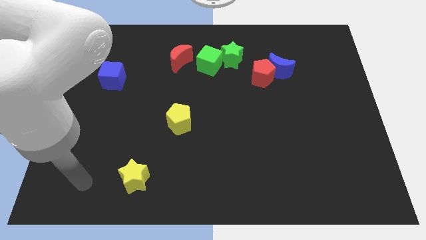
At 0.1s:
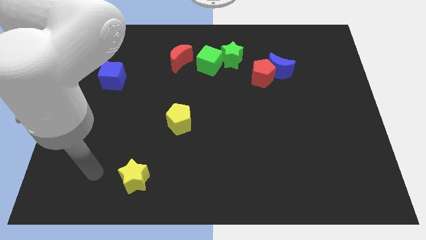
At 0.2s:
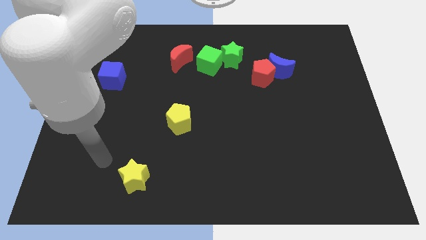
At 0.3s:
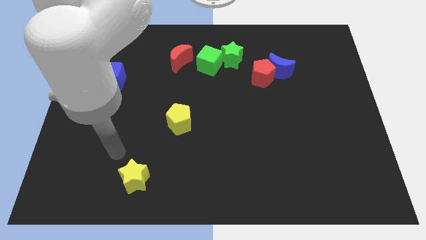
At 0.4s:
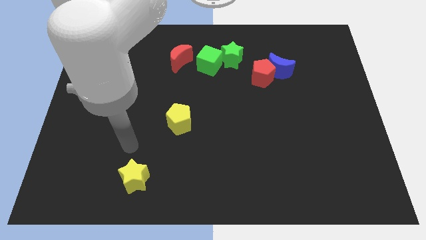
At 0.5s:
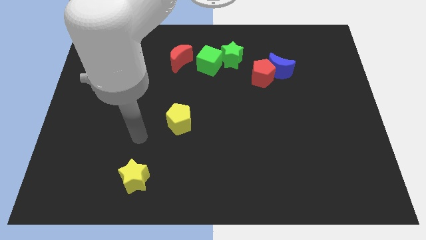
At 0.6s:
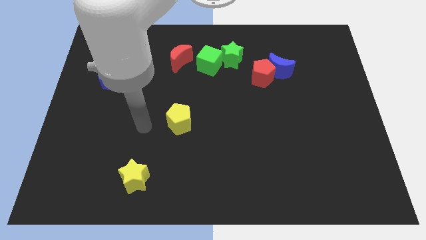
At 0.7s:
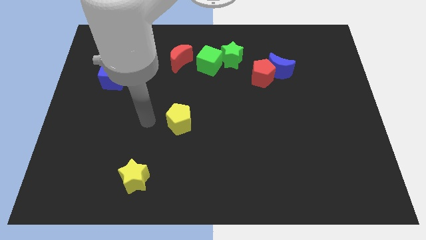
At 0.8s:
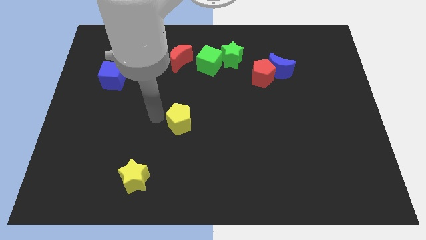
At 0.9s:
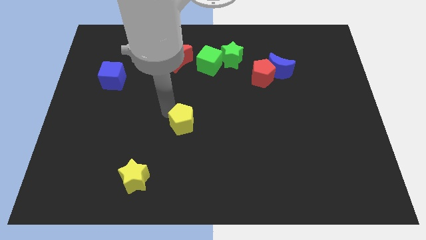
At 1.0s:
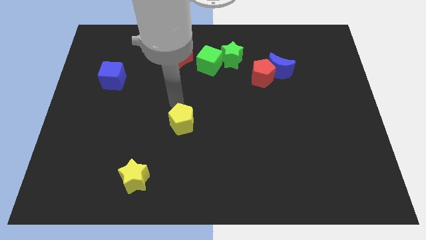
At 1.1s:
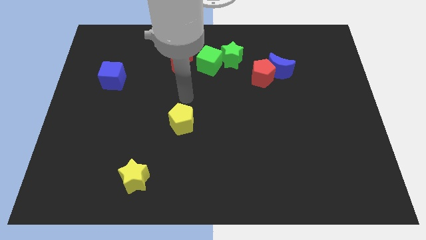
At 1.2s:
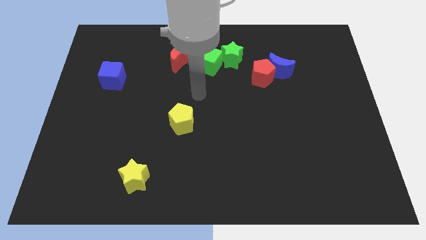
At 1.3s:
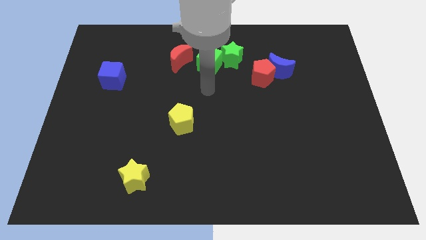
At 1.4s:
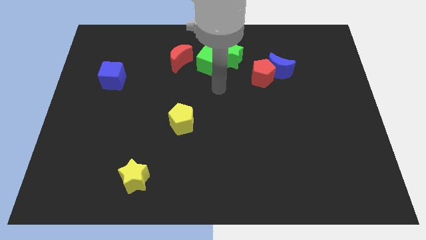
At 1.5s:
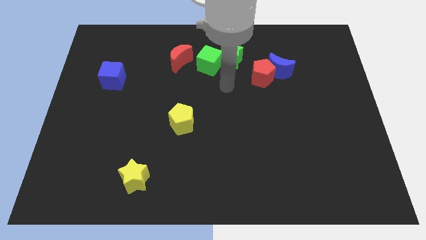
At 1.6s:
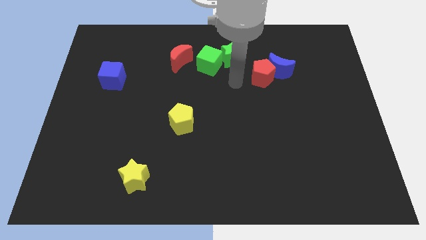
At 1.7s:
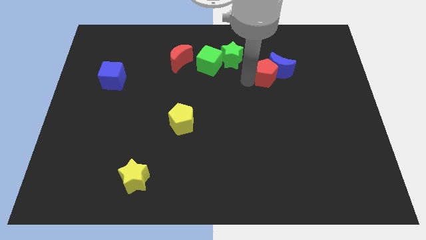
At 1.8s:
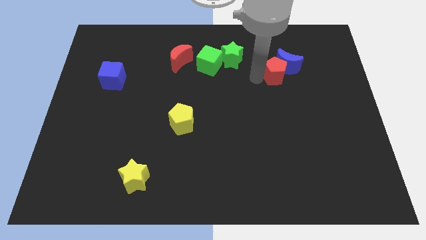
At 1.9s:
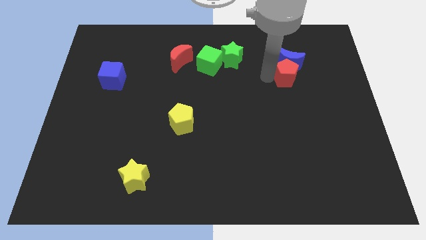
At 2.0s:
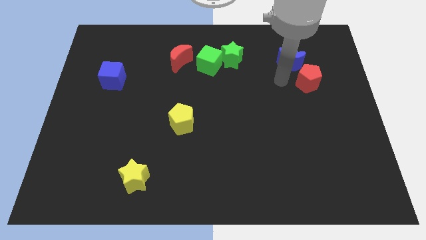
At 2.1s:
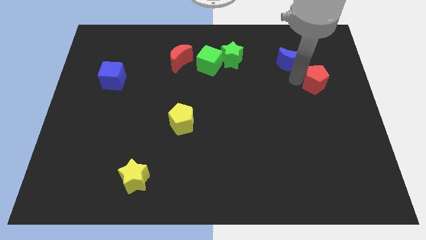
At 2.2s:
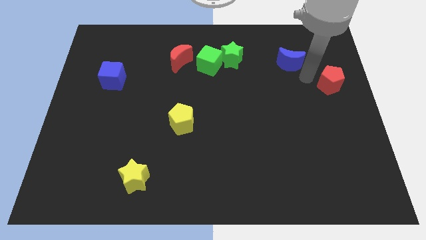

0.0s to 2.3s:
separate the blue moon from the red pentagon

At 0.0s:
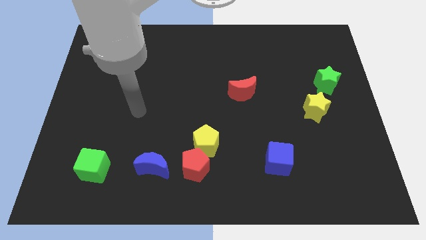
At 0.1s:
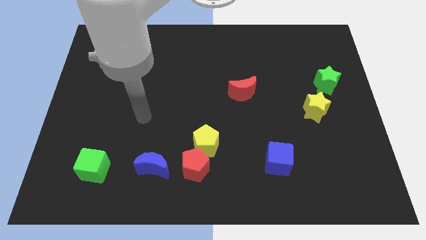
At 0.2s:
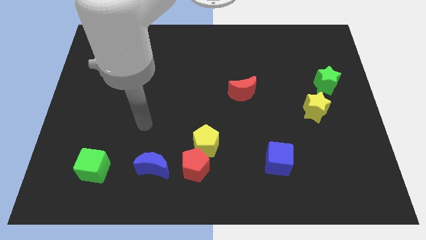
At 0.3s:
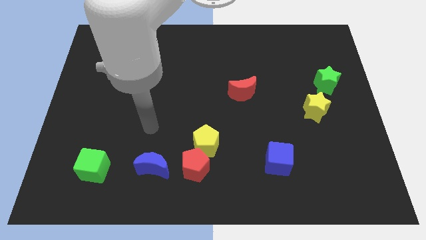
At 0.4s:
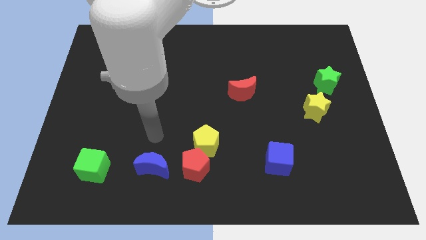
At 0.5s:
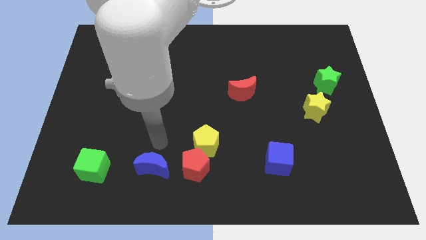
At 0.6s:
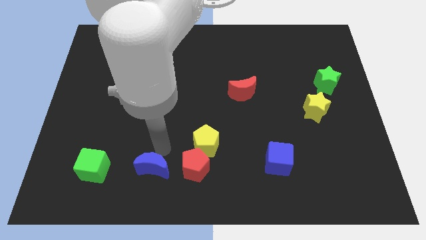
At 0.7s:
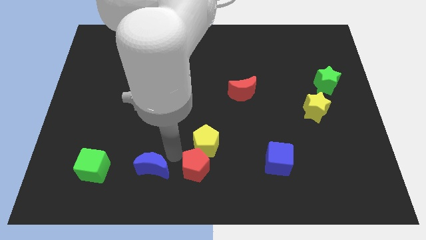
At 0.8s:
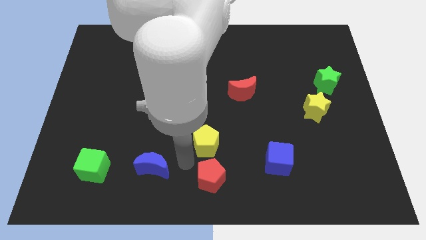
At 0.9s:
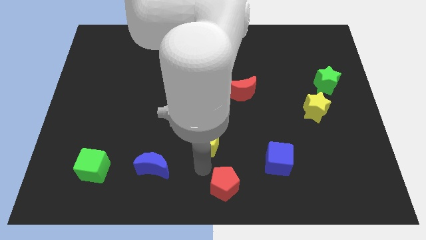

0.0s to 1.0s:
pull the yellow pentagon apart from the red pentagon

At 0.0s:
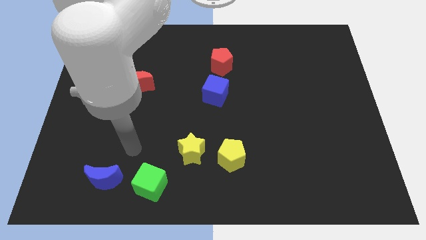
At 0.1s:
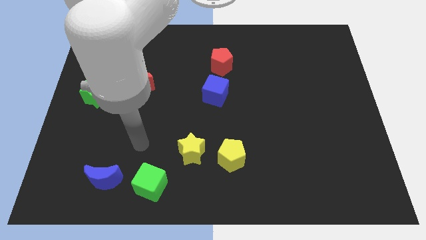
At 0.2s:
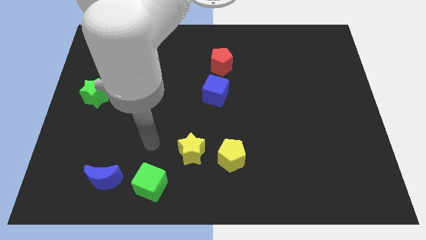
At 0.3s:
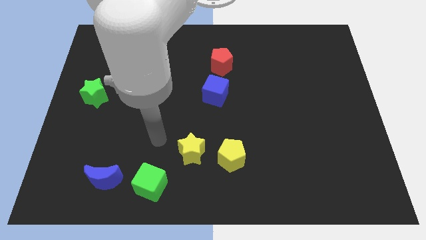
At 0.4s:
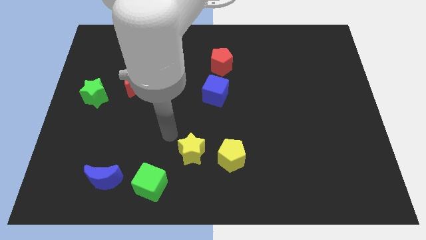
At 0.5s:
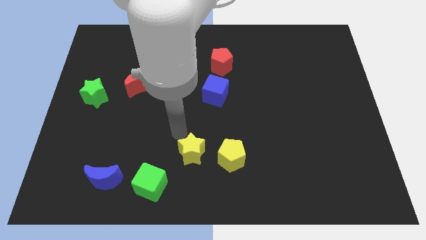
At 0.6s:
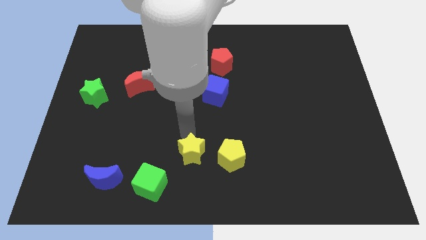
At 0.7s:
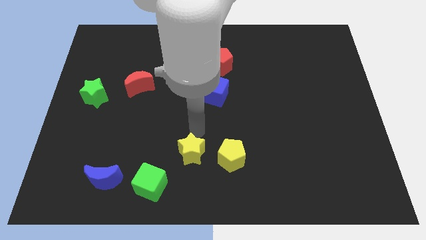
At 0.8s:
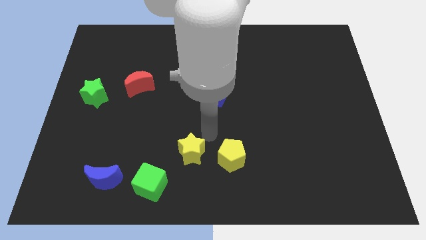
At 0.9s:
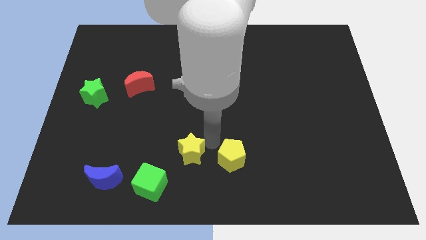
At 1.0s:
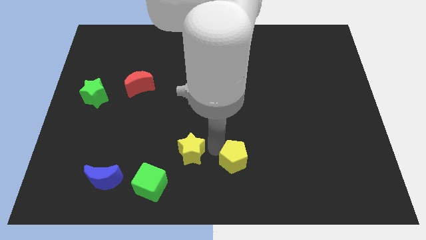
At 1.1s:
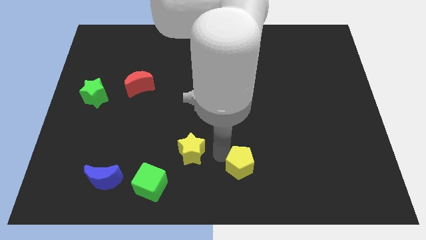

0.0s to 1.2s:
pull the yellow star apart from the yellow pentagon

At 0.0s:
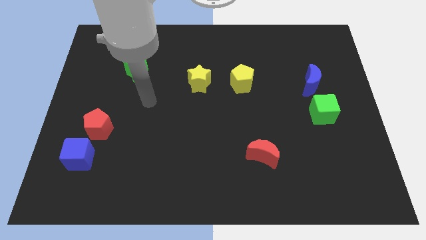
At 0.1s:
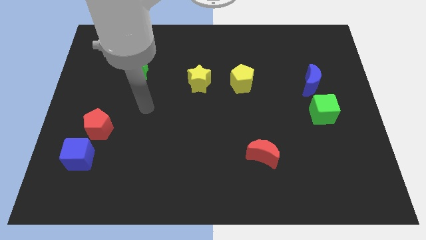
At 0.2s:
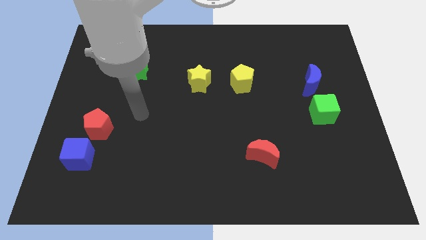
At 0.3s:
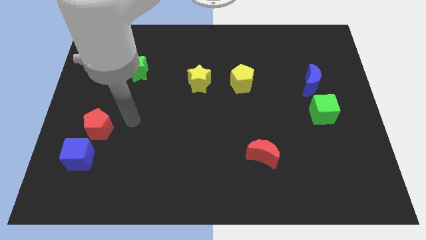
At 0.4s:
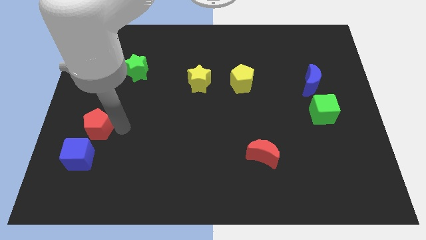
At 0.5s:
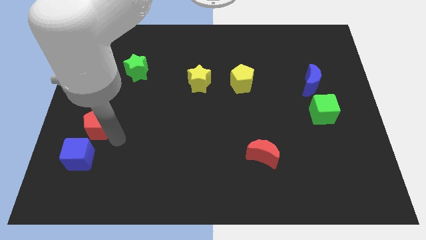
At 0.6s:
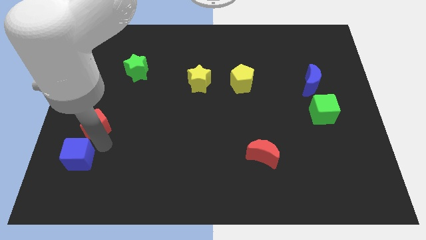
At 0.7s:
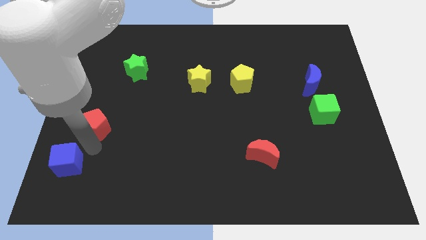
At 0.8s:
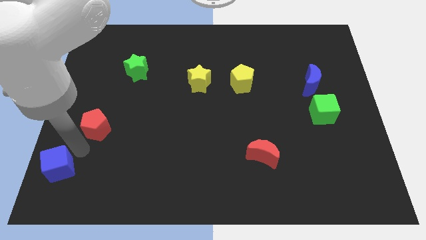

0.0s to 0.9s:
move the red pentagon away from the blue cube

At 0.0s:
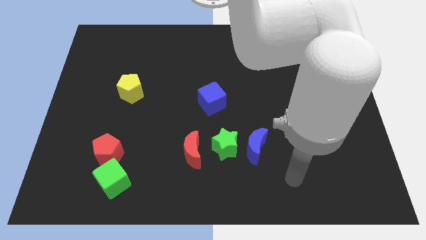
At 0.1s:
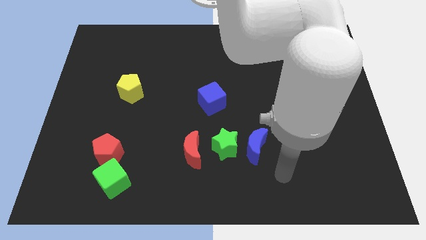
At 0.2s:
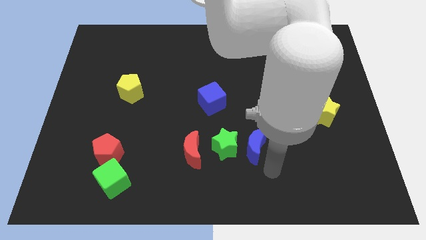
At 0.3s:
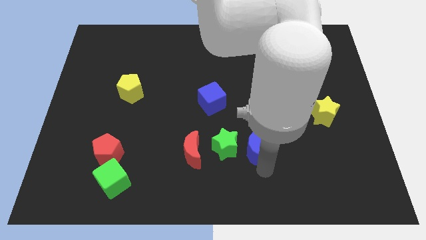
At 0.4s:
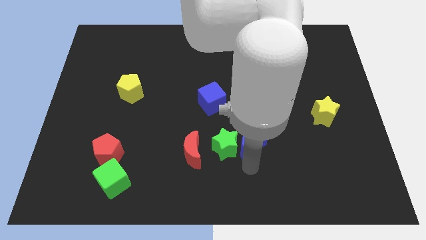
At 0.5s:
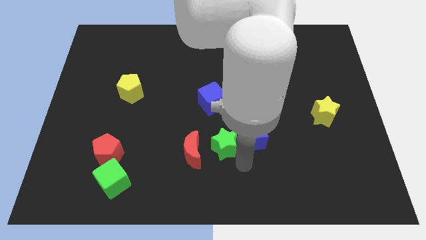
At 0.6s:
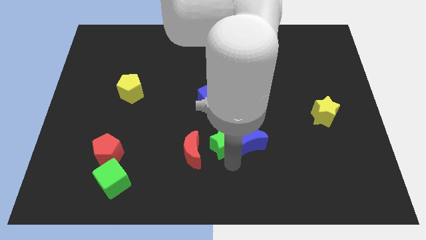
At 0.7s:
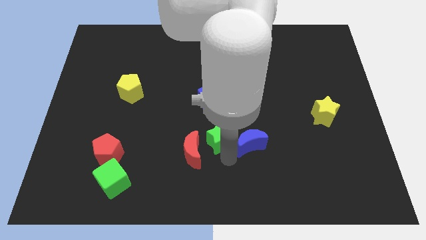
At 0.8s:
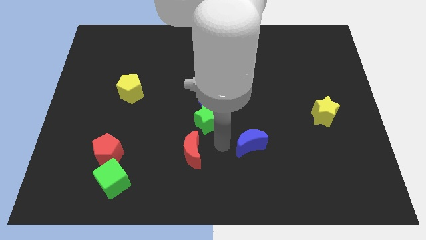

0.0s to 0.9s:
move the blue moon away from the green star

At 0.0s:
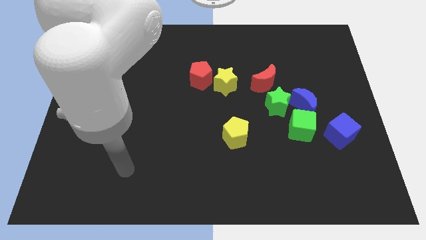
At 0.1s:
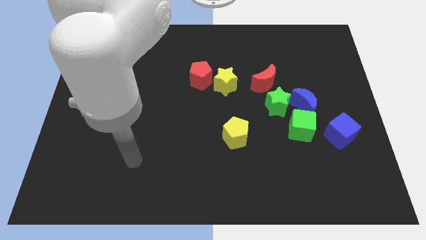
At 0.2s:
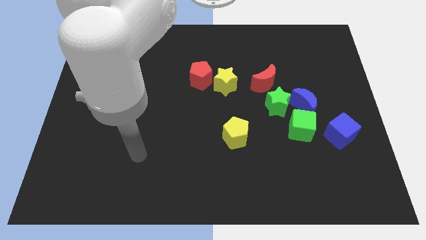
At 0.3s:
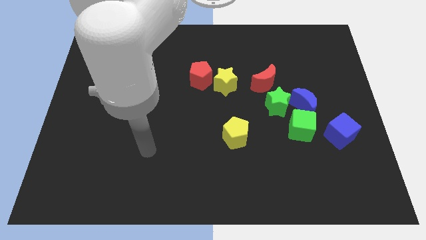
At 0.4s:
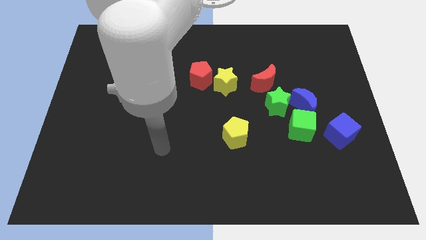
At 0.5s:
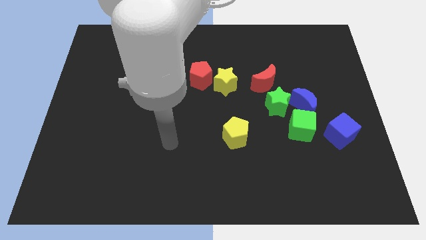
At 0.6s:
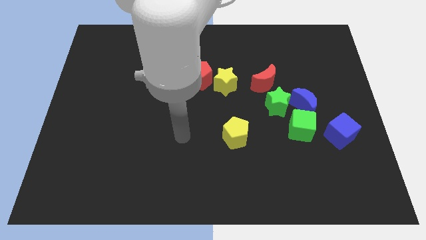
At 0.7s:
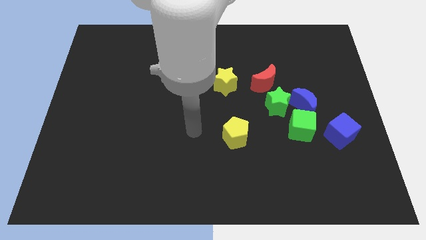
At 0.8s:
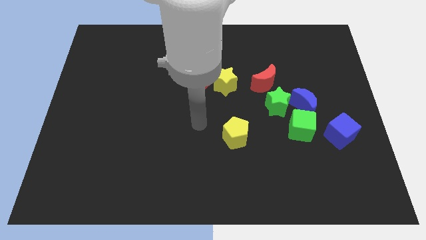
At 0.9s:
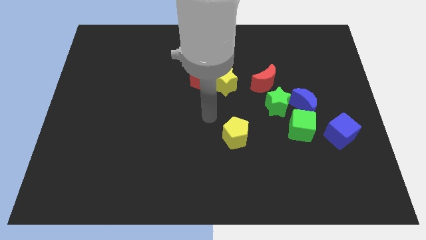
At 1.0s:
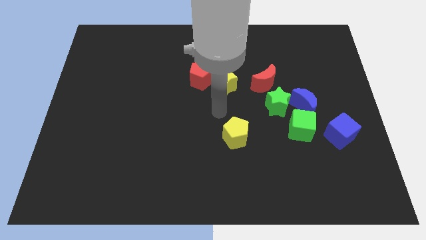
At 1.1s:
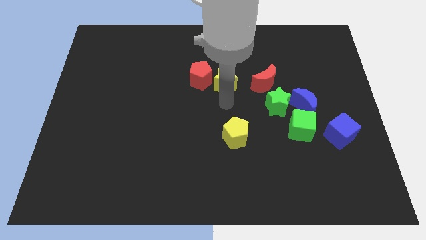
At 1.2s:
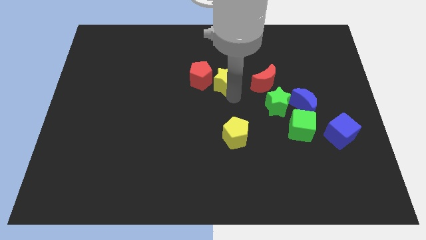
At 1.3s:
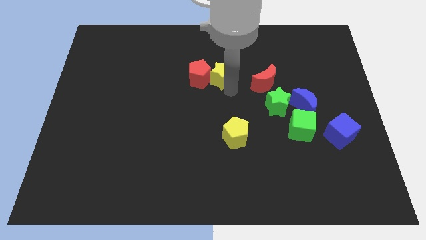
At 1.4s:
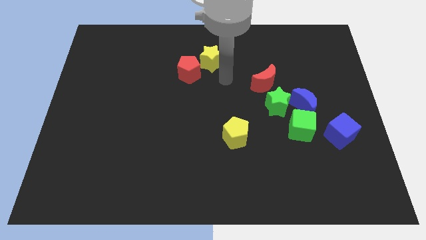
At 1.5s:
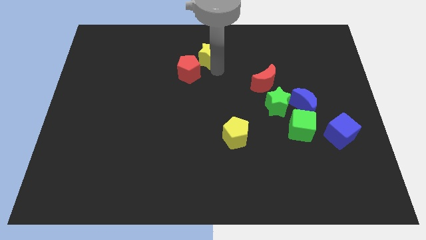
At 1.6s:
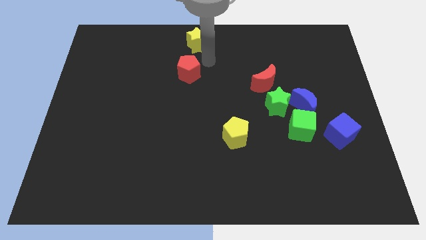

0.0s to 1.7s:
move the red pentagon away from the yellow star

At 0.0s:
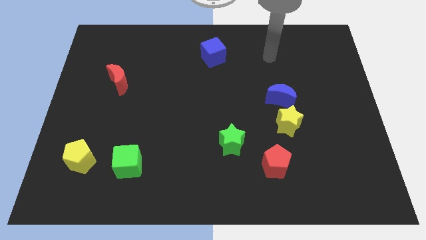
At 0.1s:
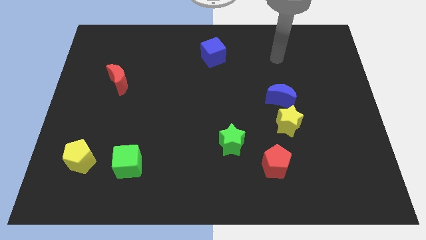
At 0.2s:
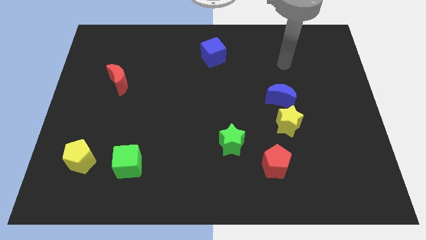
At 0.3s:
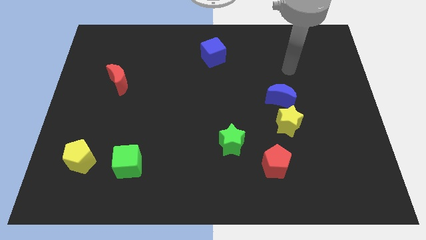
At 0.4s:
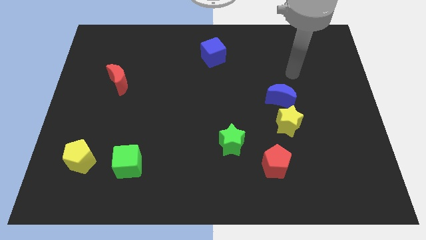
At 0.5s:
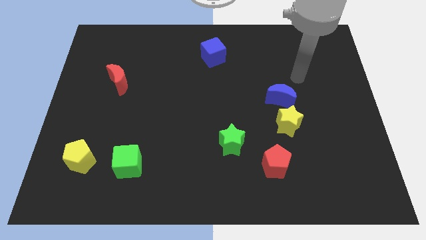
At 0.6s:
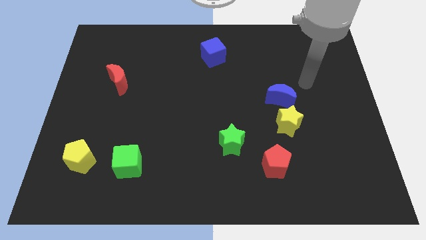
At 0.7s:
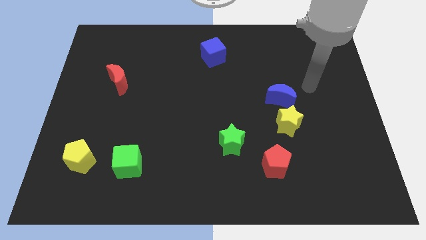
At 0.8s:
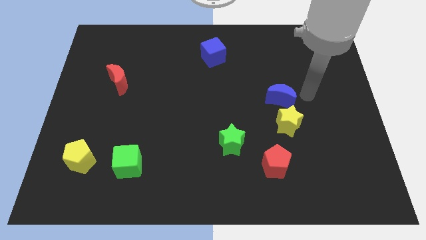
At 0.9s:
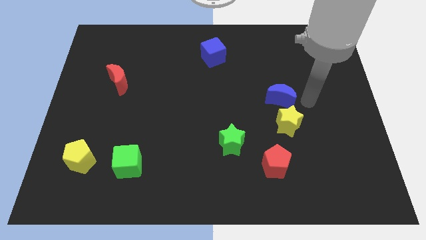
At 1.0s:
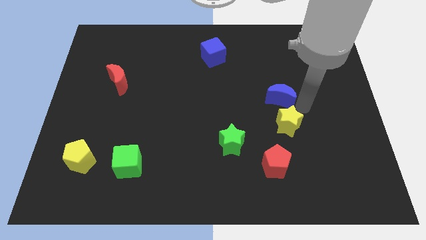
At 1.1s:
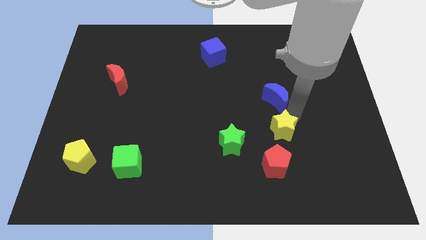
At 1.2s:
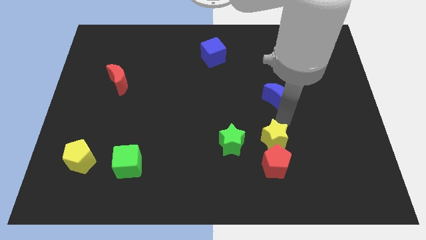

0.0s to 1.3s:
move the blue moon away from the yellow star
